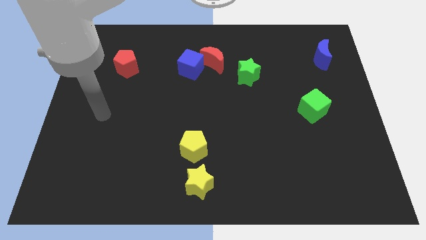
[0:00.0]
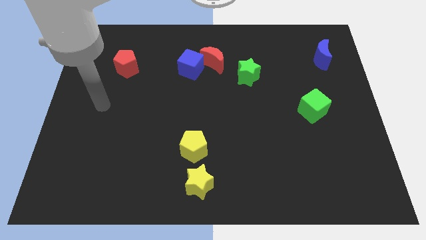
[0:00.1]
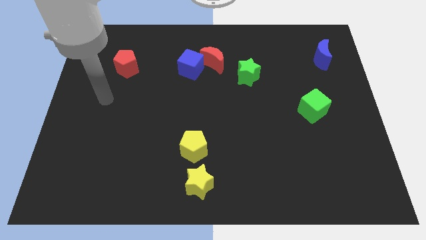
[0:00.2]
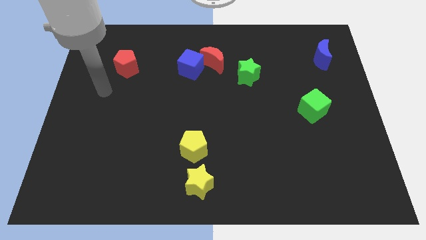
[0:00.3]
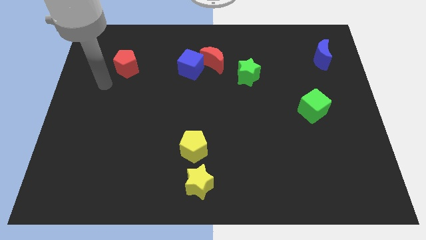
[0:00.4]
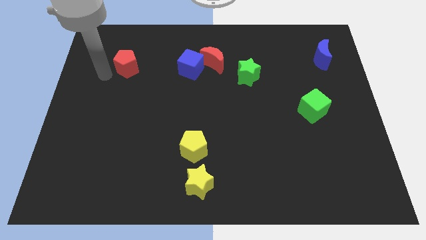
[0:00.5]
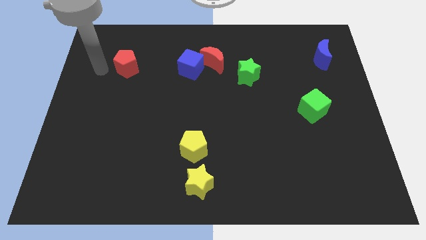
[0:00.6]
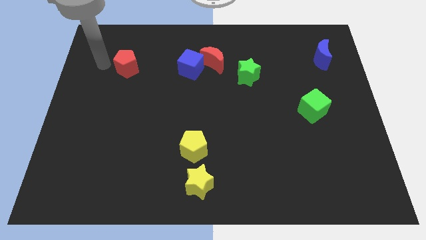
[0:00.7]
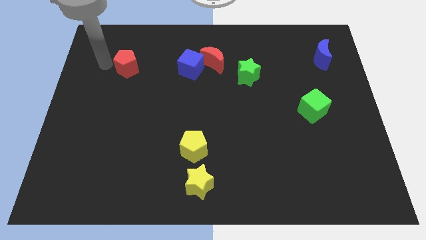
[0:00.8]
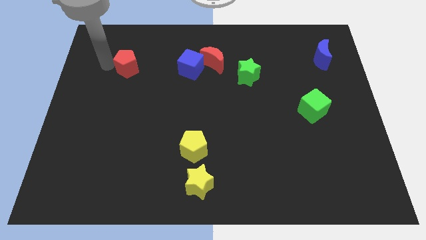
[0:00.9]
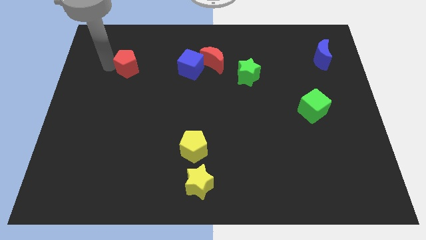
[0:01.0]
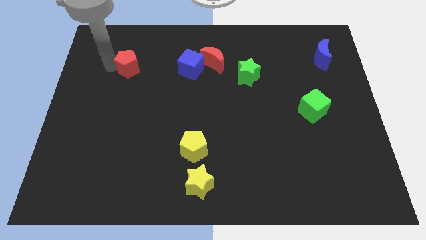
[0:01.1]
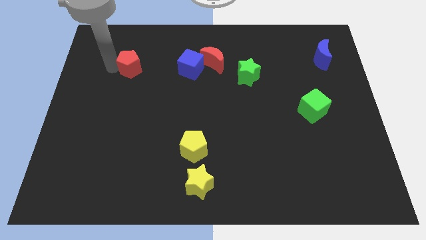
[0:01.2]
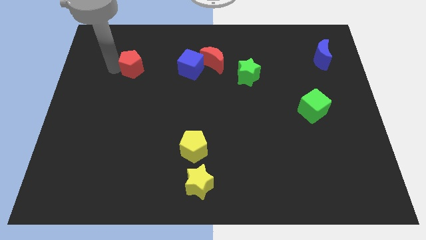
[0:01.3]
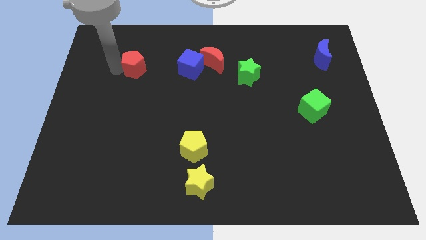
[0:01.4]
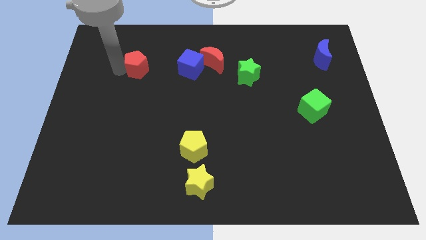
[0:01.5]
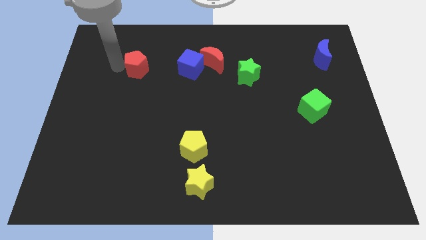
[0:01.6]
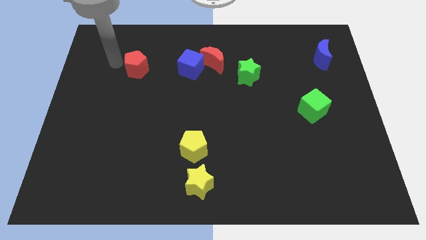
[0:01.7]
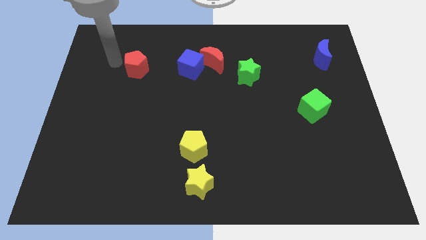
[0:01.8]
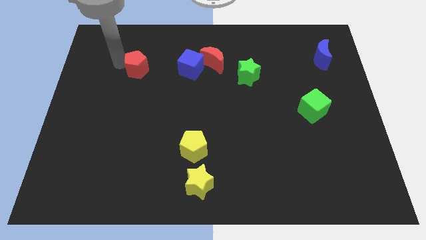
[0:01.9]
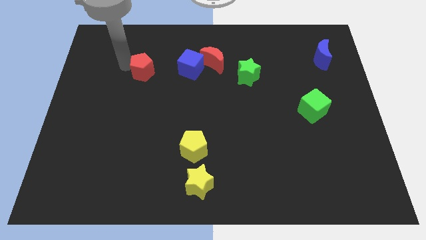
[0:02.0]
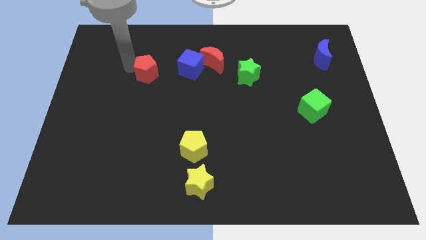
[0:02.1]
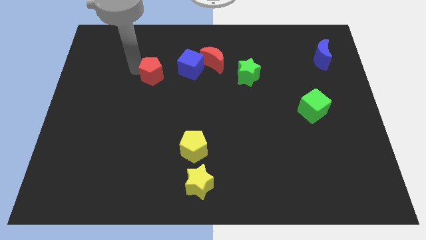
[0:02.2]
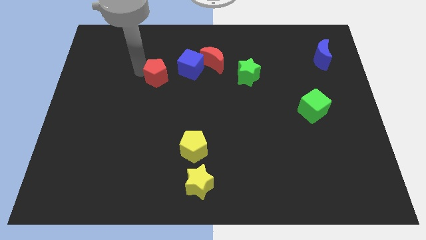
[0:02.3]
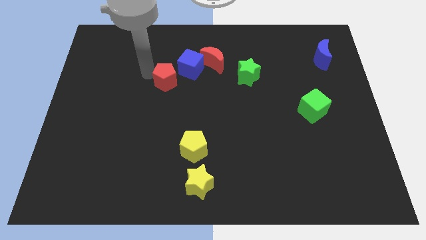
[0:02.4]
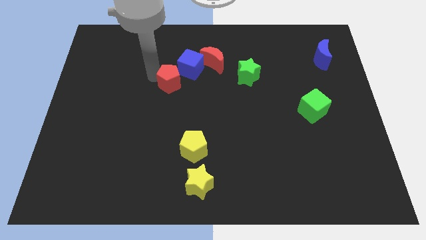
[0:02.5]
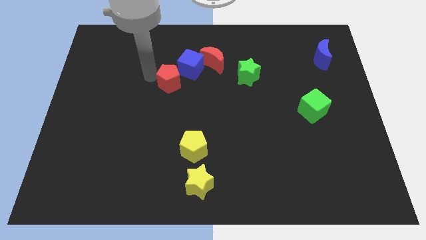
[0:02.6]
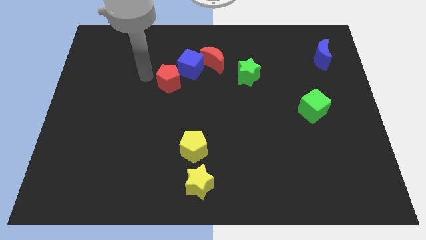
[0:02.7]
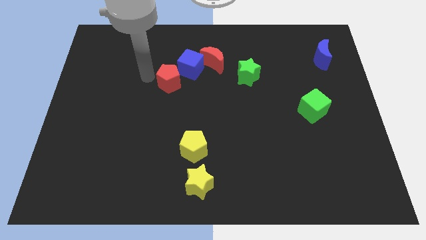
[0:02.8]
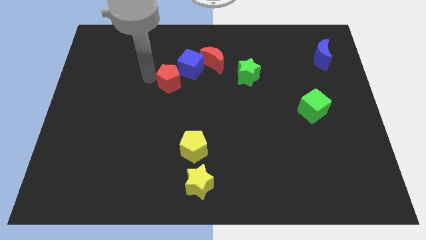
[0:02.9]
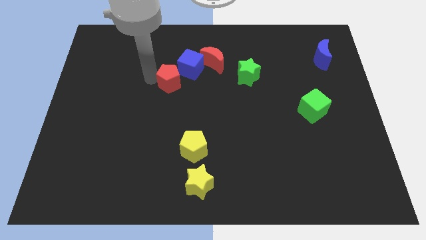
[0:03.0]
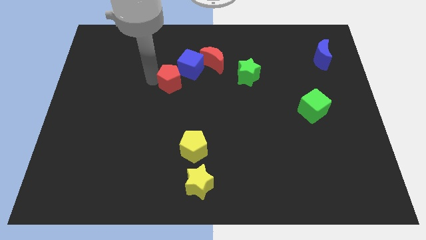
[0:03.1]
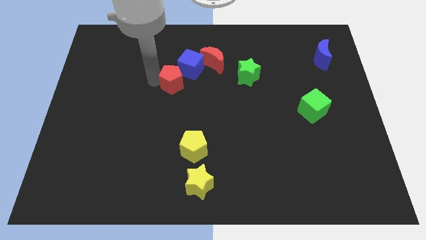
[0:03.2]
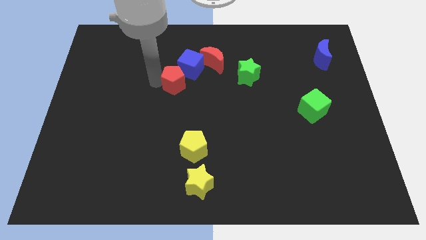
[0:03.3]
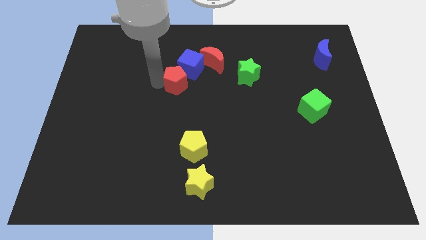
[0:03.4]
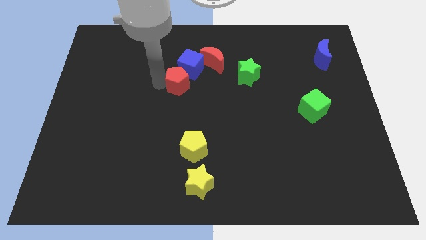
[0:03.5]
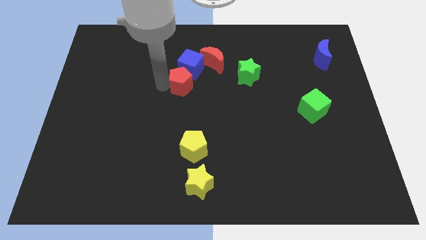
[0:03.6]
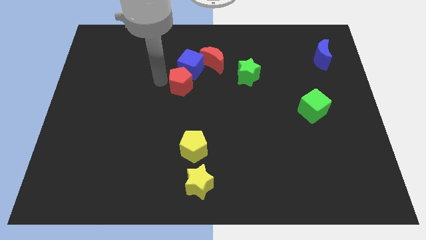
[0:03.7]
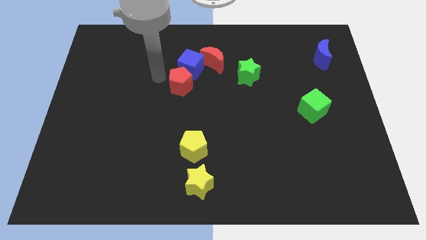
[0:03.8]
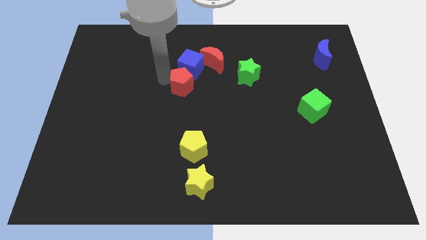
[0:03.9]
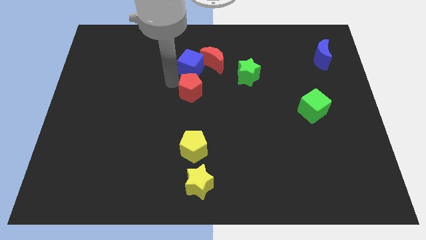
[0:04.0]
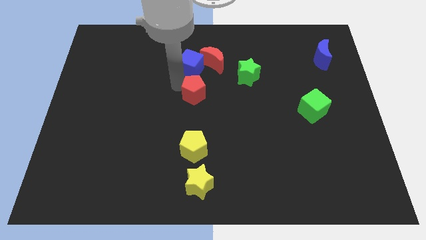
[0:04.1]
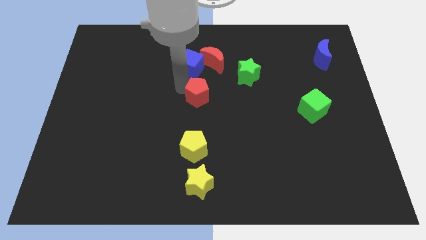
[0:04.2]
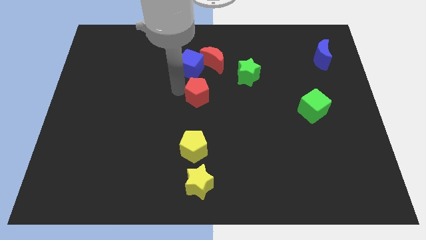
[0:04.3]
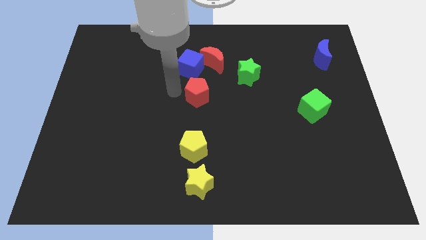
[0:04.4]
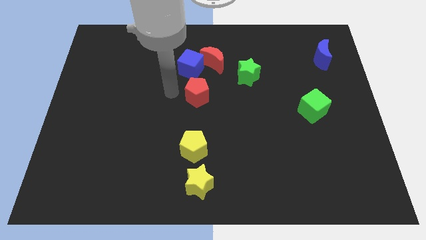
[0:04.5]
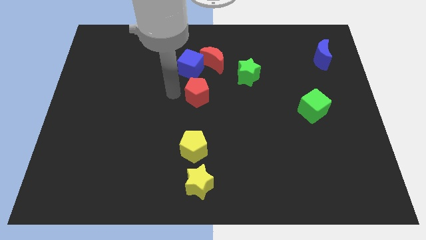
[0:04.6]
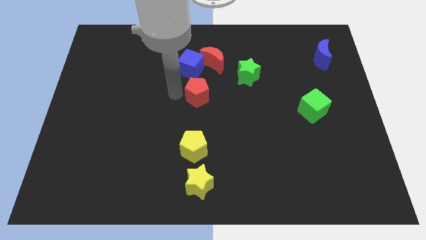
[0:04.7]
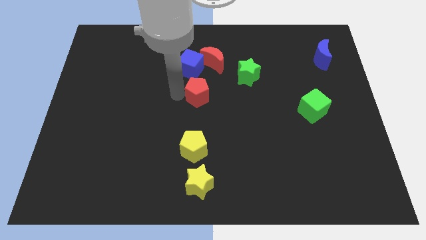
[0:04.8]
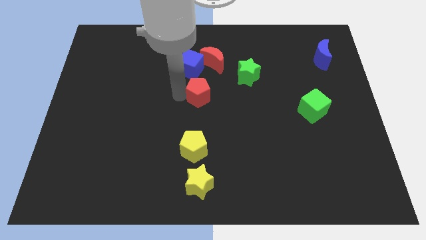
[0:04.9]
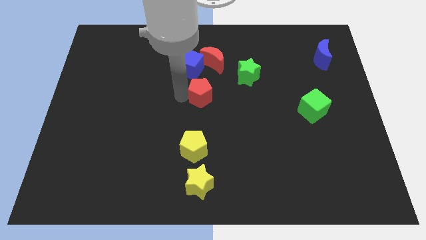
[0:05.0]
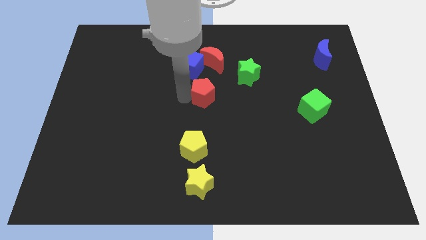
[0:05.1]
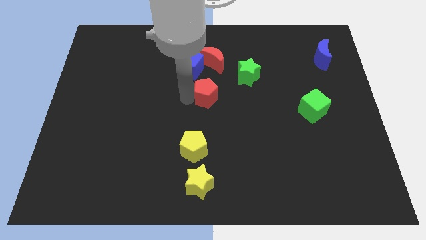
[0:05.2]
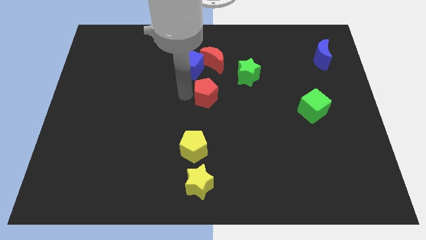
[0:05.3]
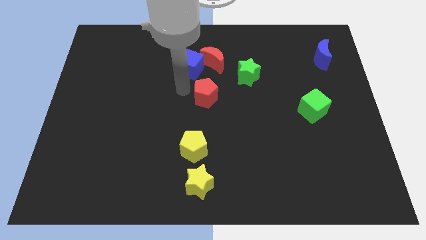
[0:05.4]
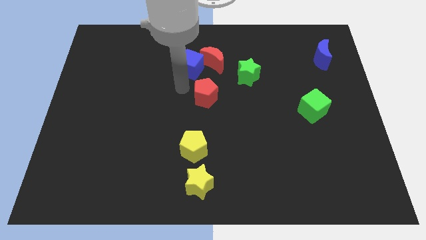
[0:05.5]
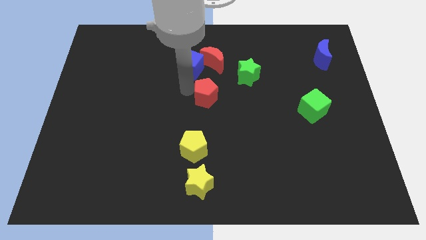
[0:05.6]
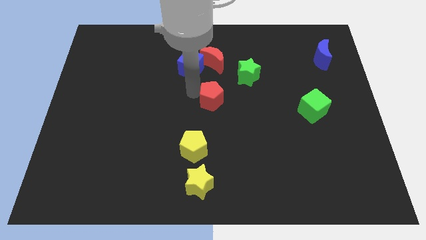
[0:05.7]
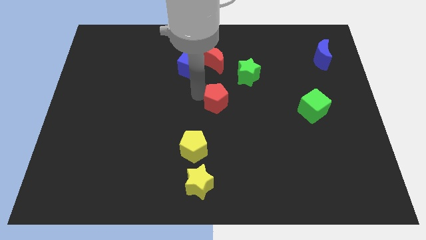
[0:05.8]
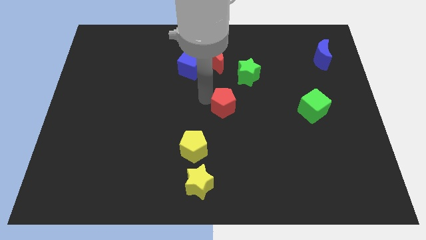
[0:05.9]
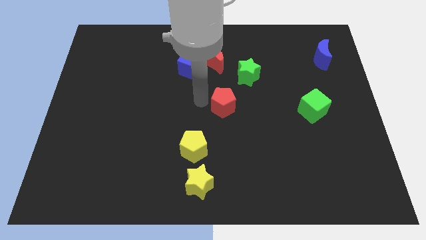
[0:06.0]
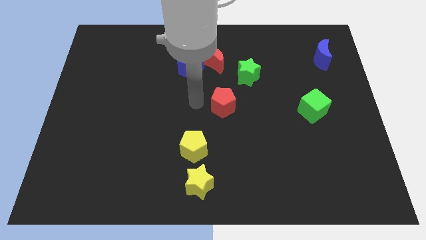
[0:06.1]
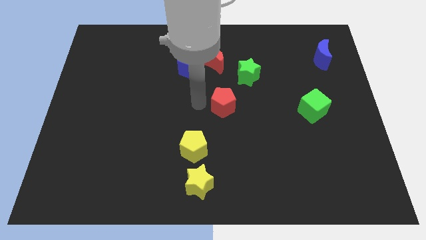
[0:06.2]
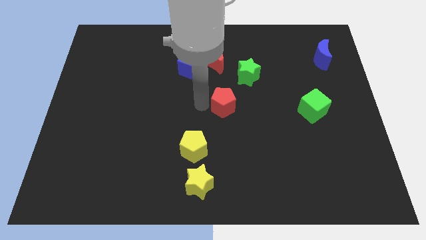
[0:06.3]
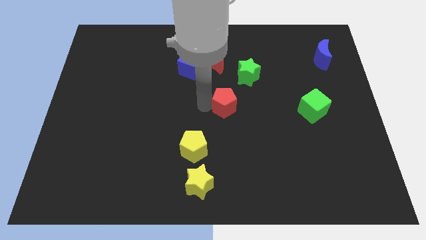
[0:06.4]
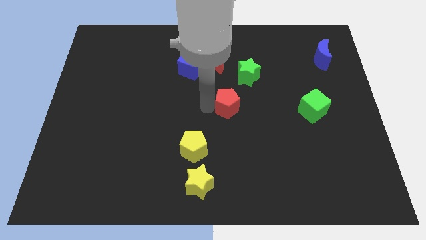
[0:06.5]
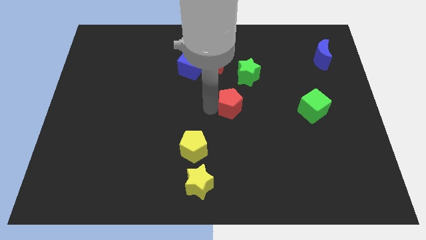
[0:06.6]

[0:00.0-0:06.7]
put the red pentagon below the green star

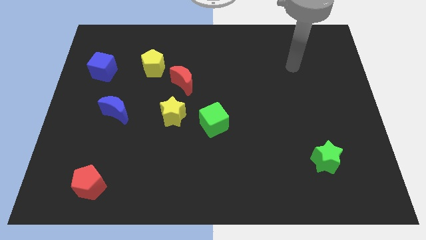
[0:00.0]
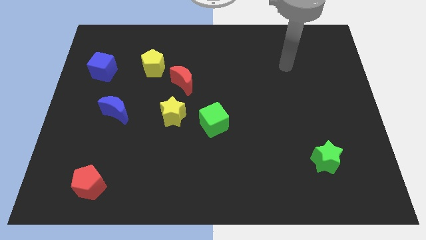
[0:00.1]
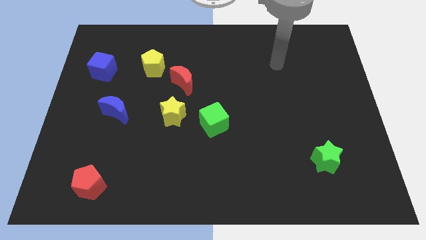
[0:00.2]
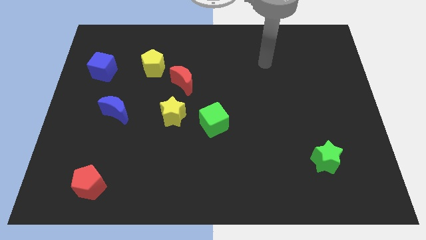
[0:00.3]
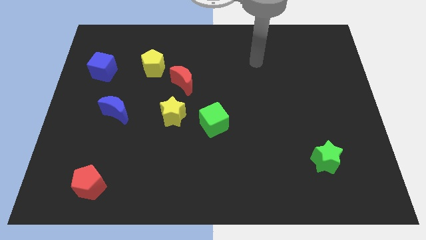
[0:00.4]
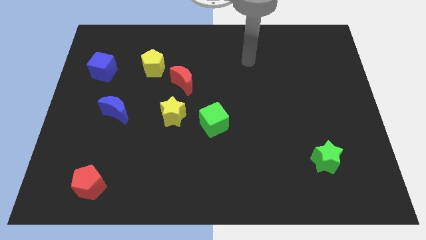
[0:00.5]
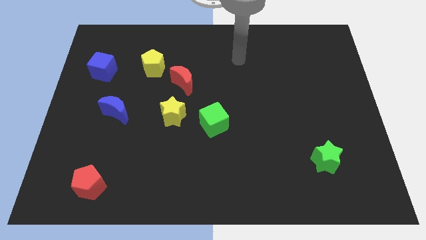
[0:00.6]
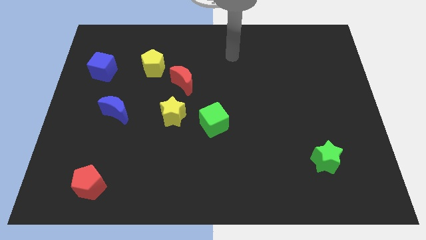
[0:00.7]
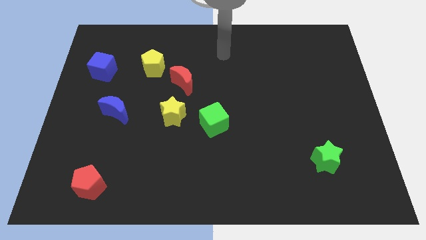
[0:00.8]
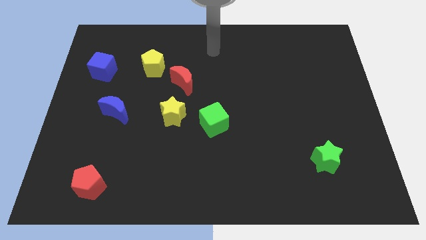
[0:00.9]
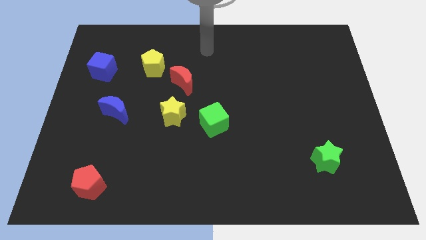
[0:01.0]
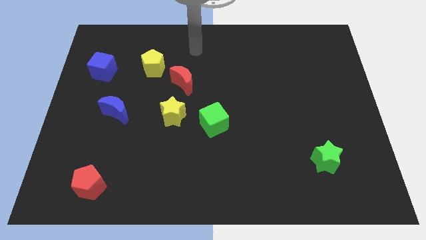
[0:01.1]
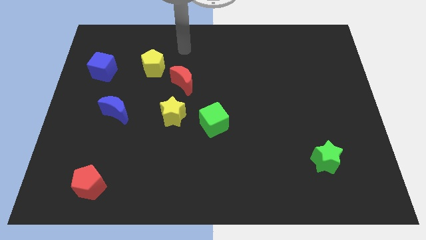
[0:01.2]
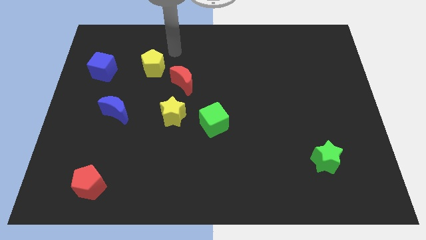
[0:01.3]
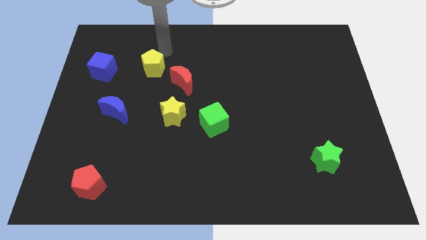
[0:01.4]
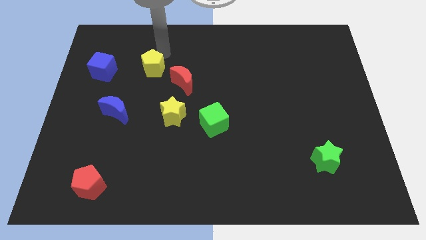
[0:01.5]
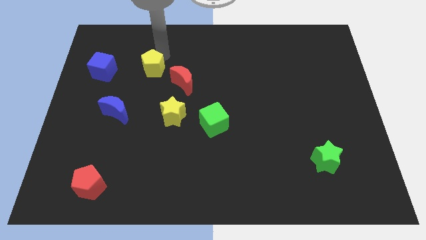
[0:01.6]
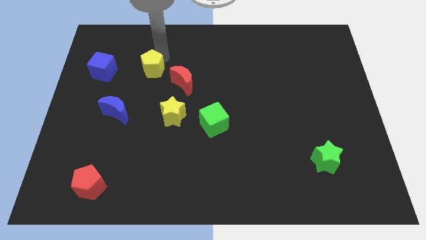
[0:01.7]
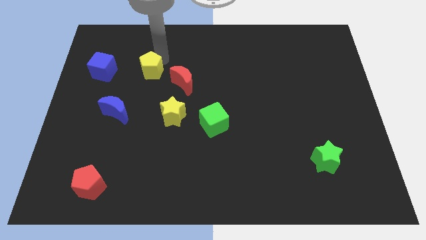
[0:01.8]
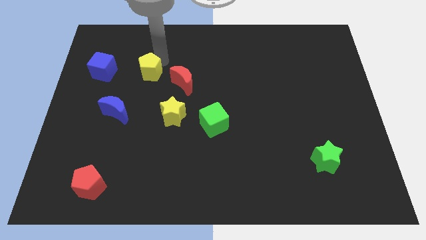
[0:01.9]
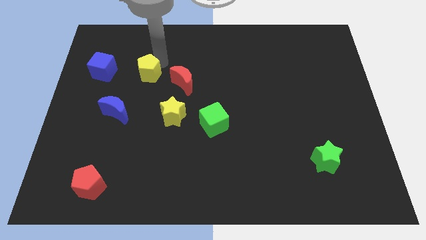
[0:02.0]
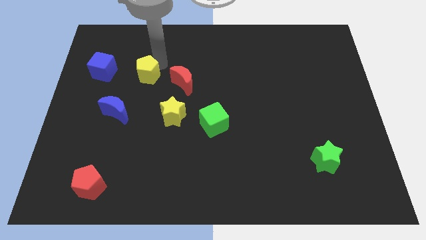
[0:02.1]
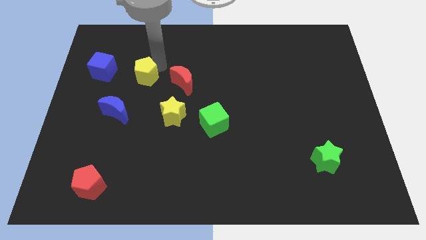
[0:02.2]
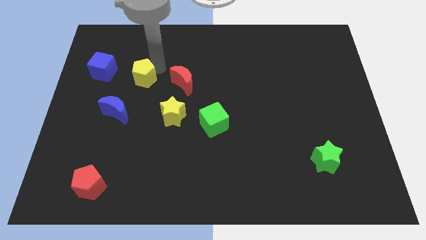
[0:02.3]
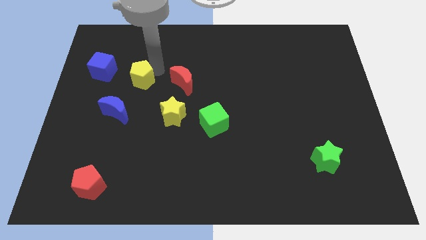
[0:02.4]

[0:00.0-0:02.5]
move the yellow pentagon diagonally up and to the right of the blue moon
